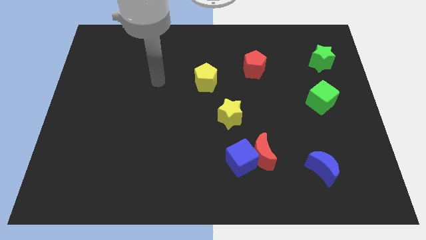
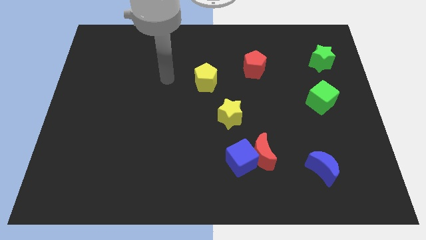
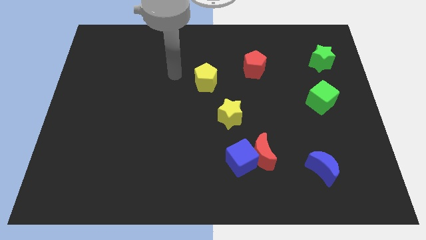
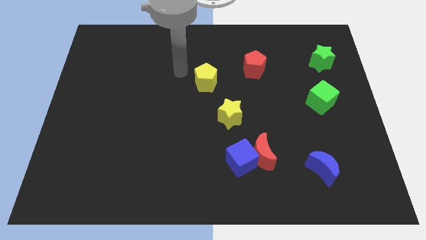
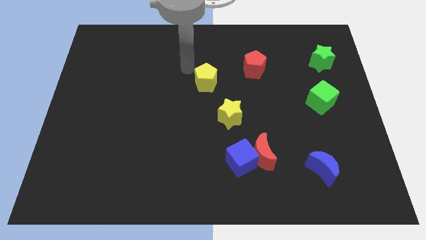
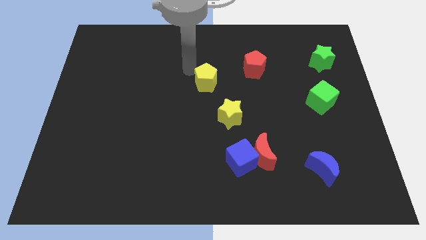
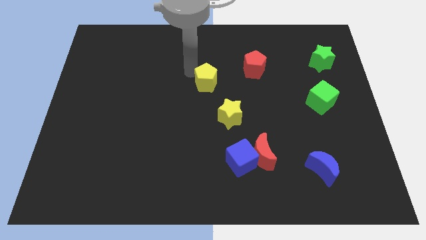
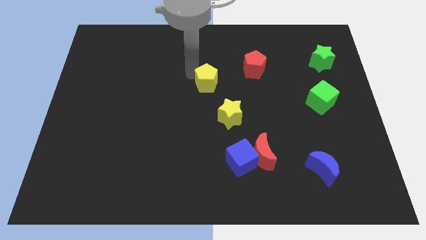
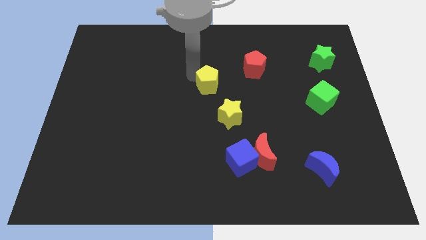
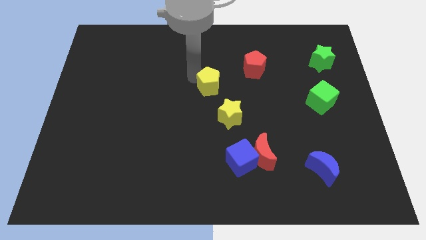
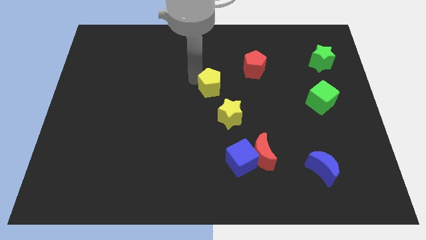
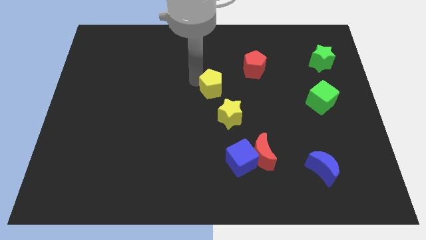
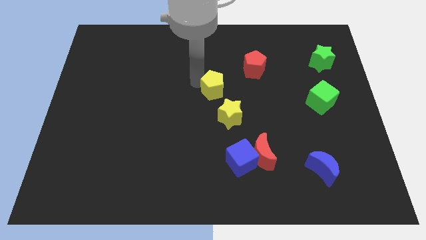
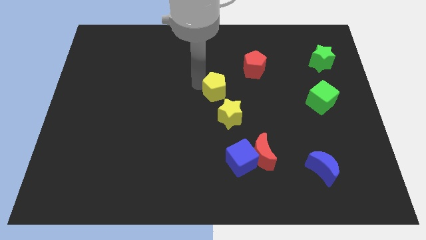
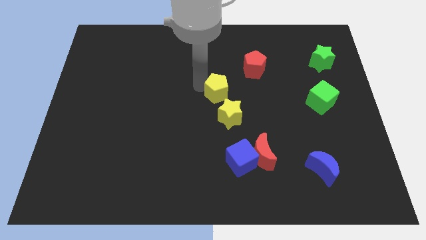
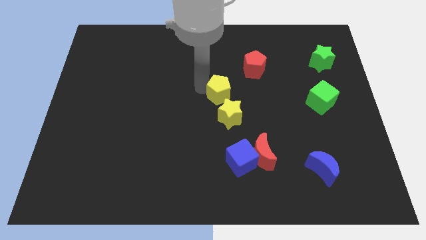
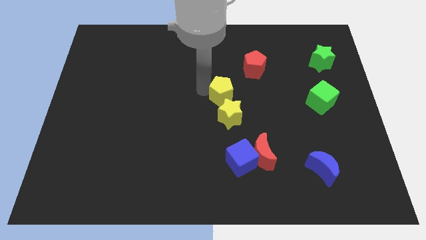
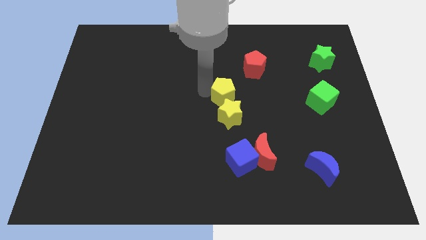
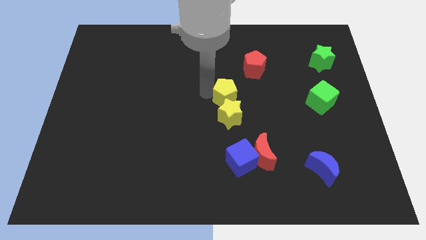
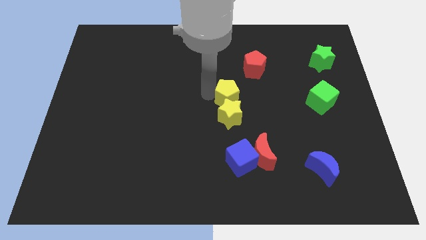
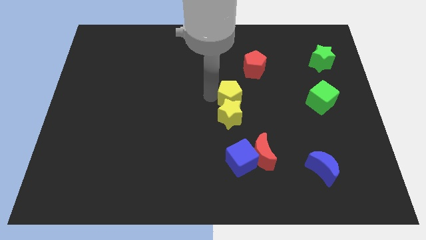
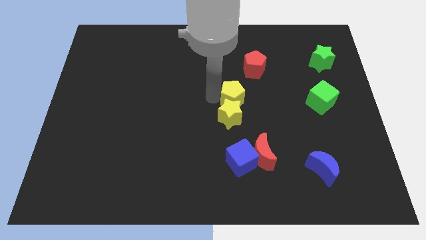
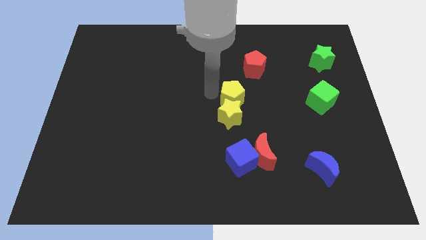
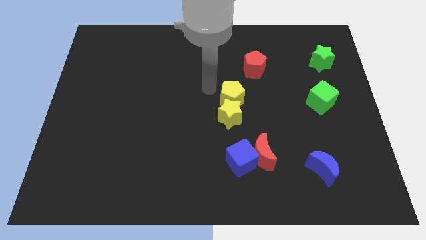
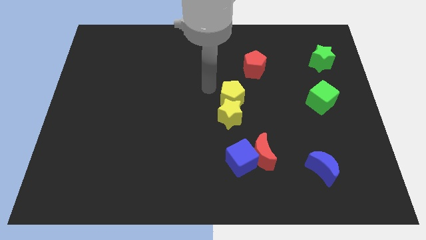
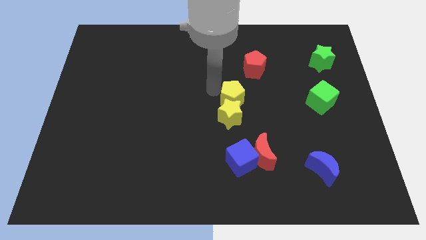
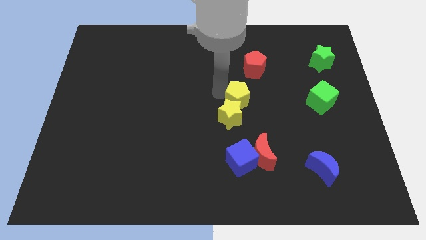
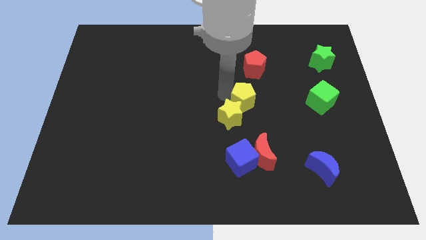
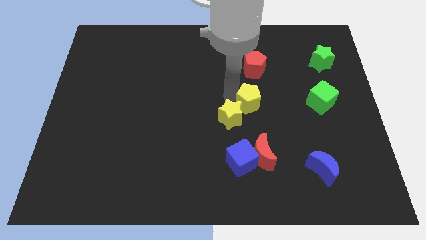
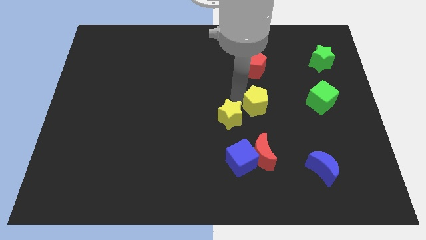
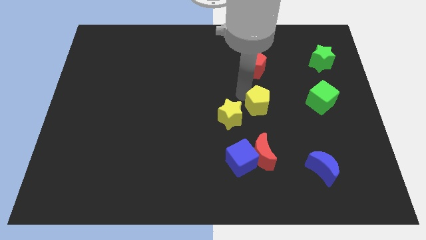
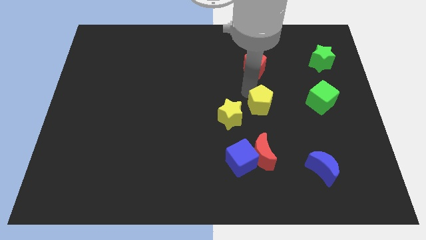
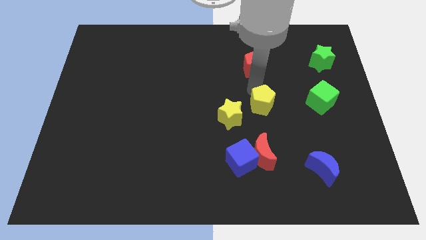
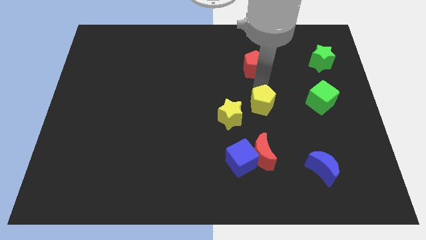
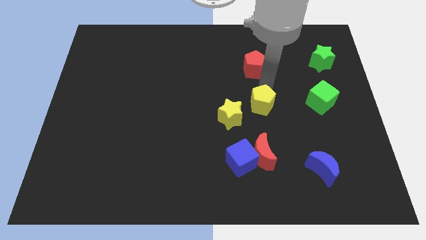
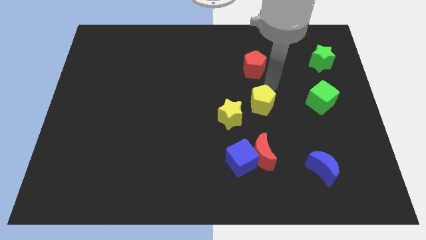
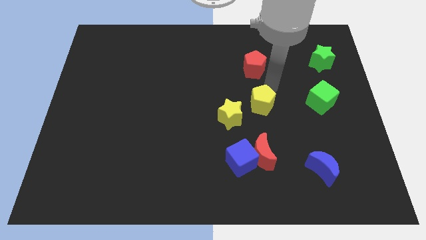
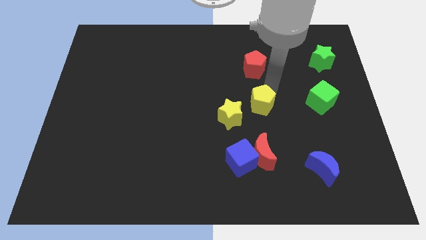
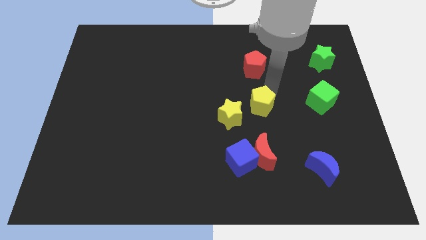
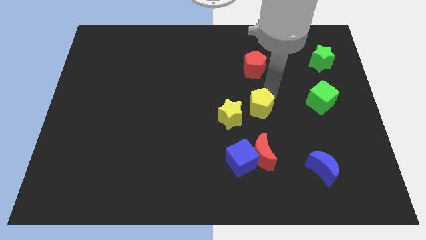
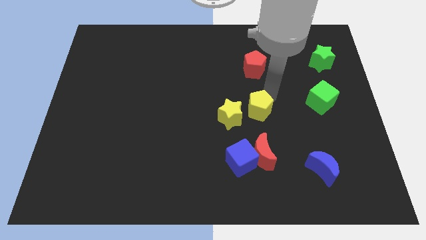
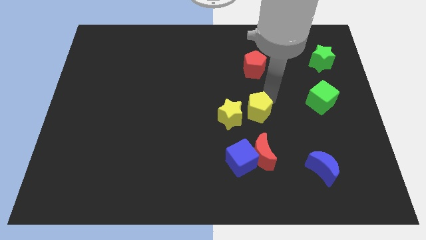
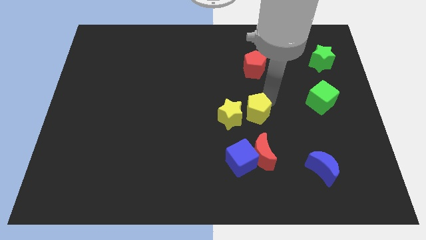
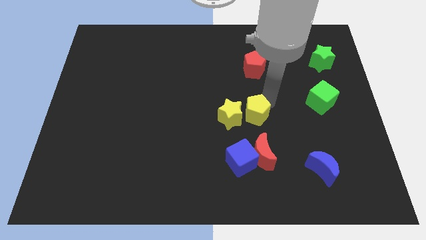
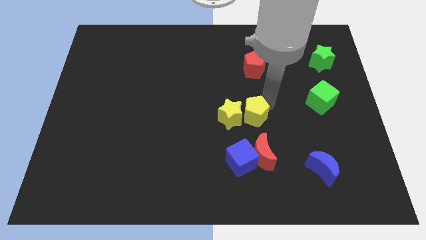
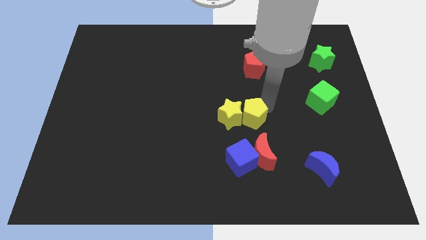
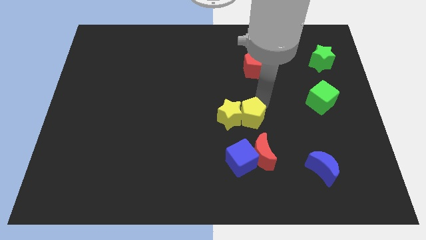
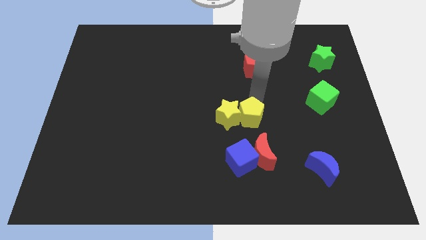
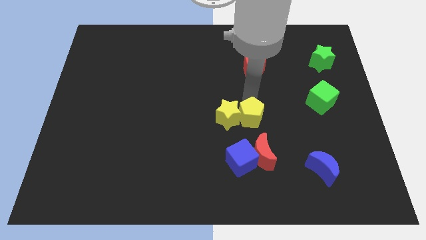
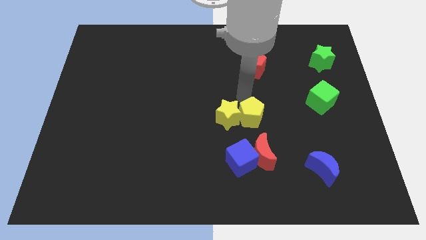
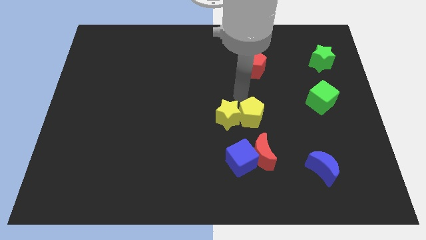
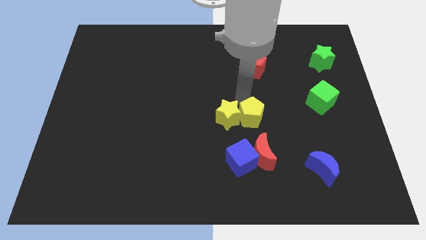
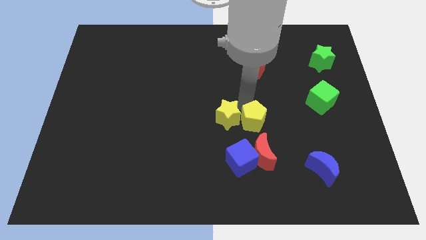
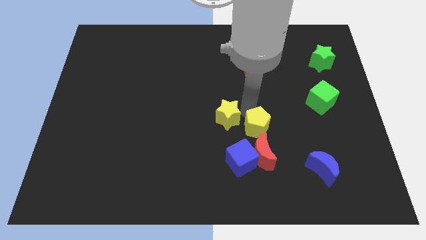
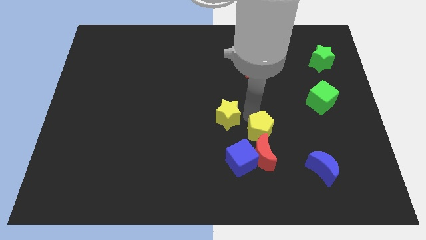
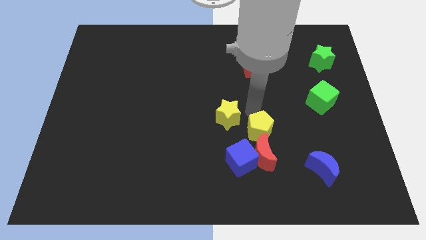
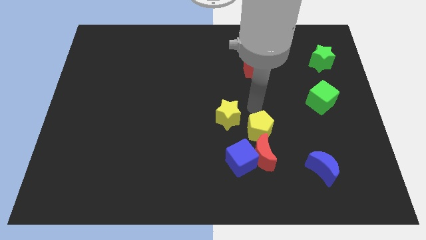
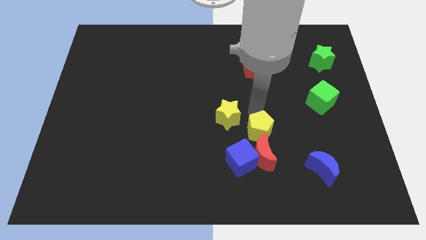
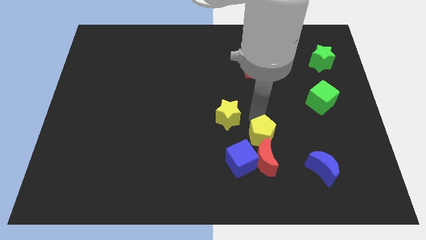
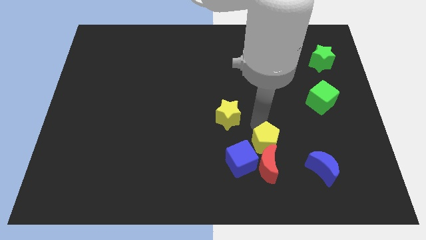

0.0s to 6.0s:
push the yellow pentagon towards the red moon

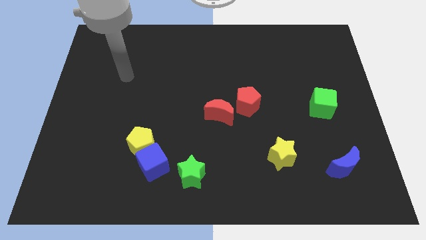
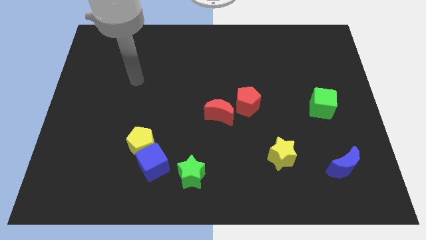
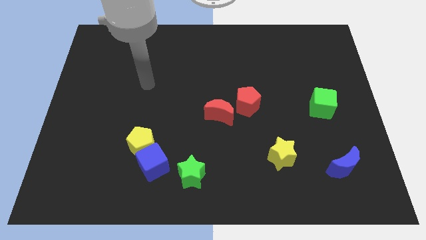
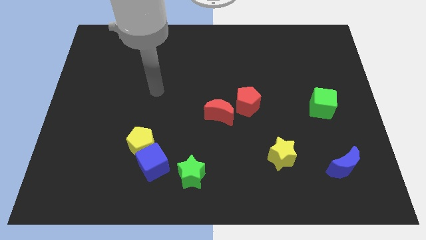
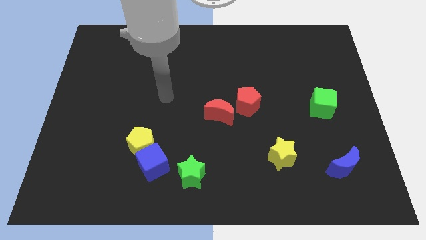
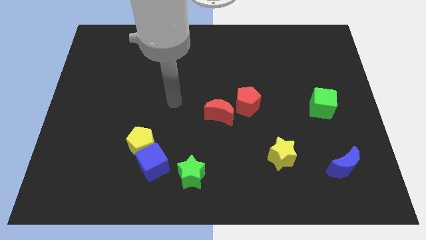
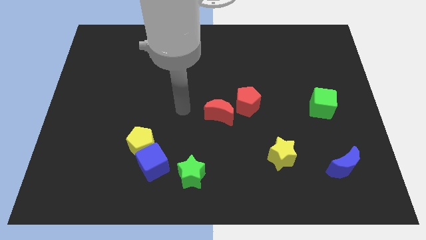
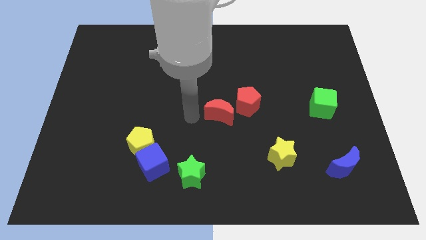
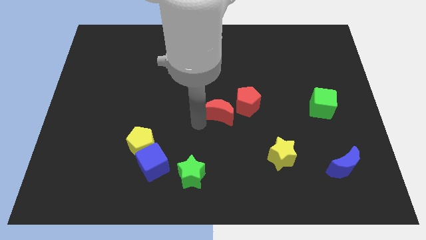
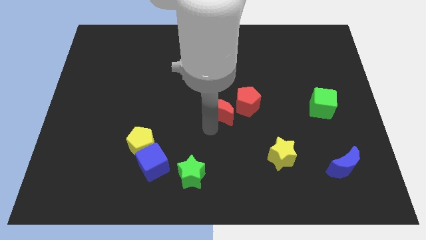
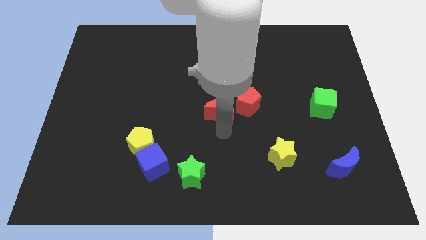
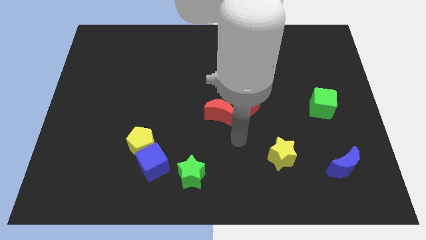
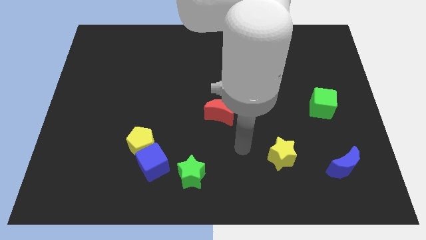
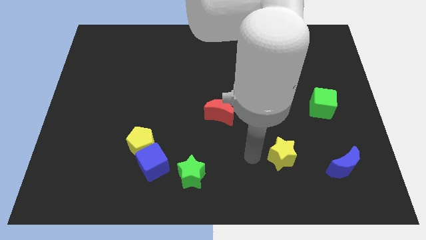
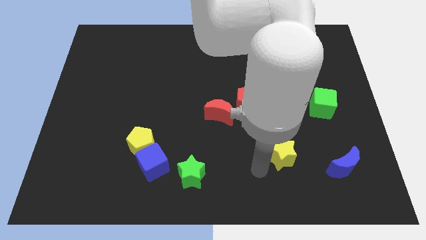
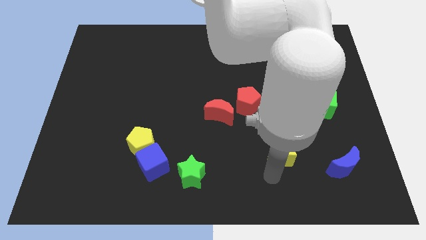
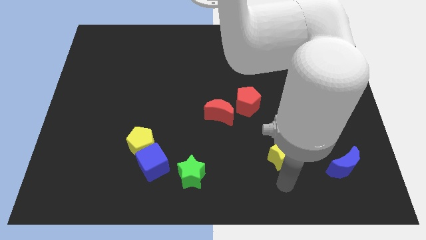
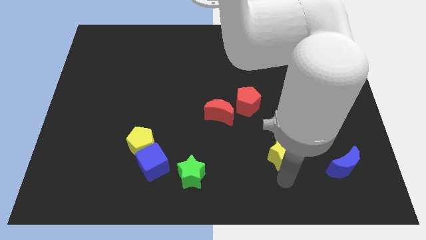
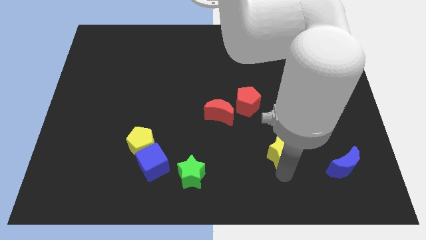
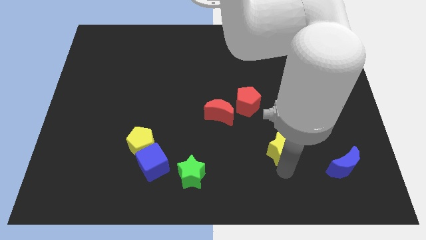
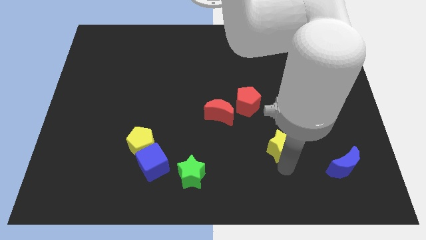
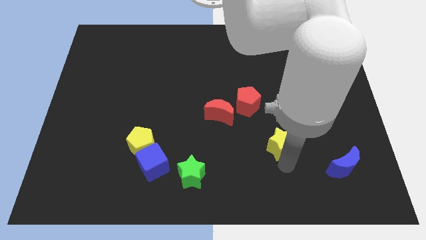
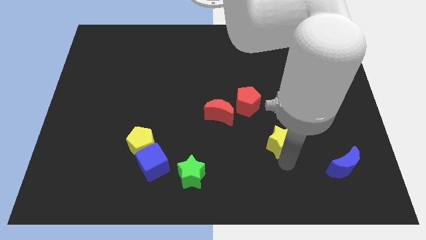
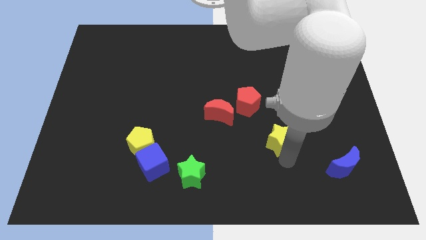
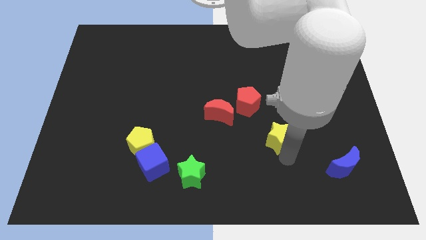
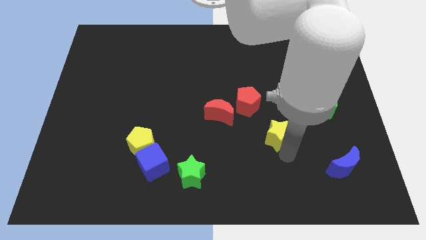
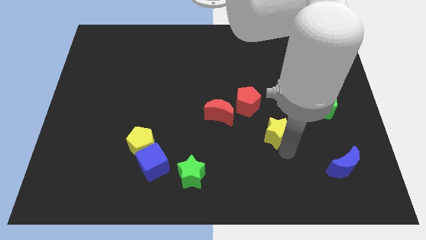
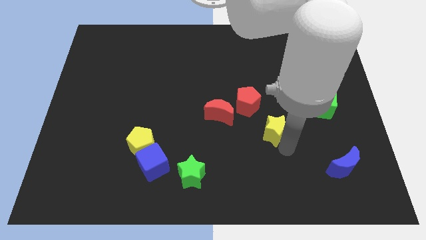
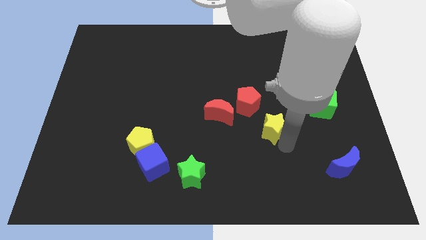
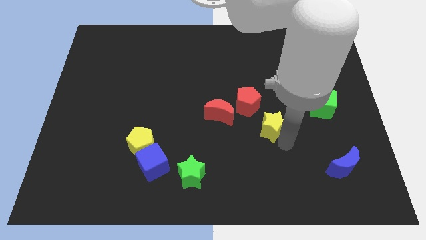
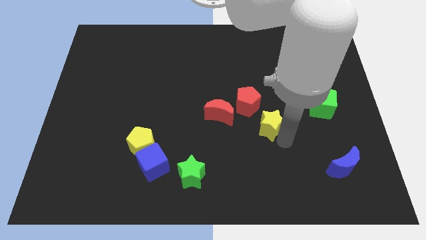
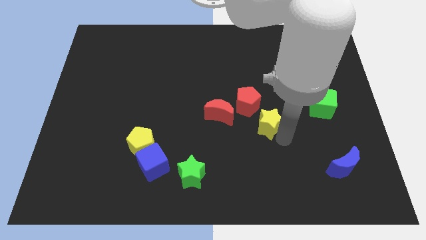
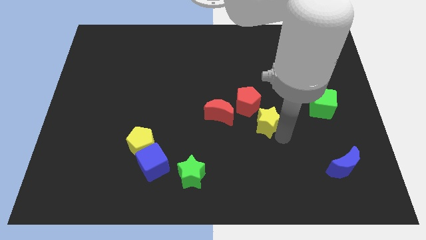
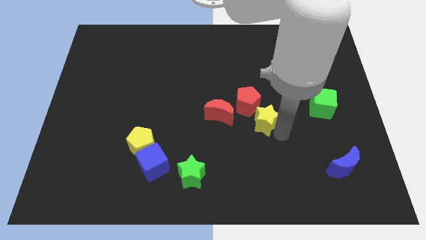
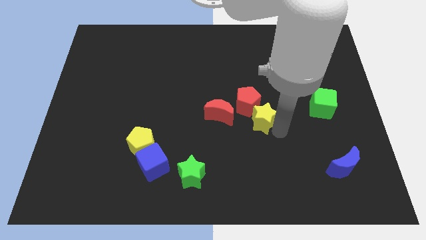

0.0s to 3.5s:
push the yellow star towards the red pentagon
